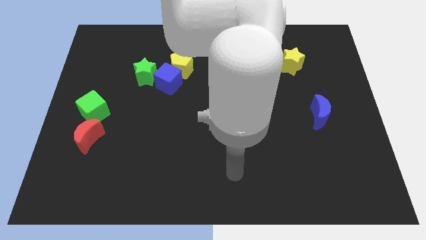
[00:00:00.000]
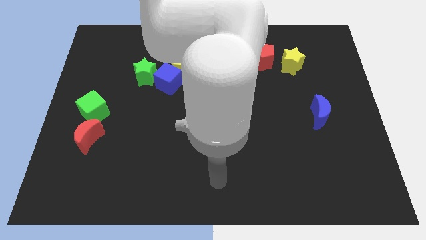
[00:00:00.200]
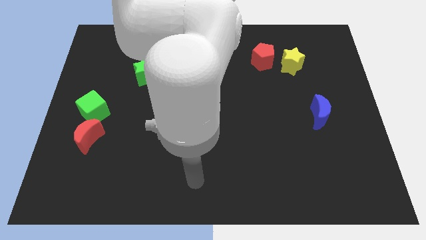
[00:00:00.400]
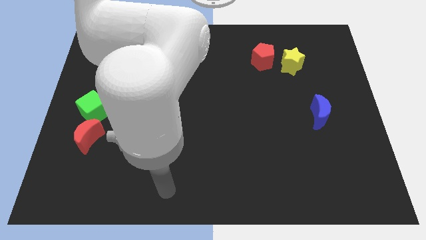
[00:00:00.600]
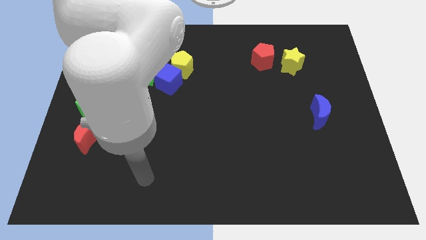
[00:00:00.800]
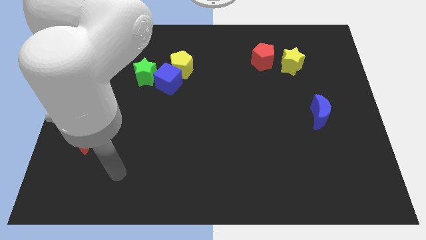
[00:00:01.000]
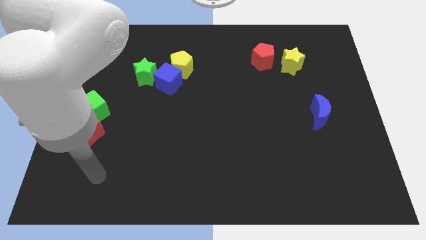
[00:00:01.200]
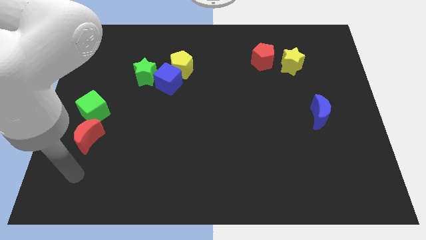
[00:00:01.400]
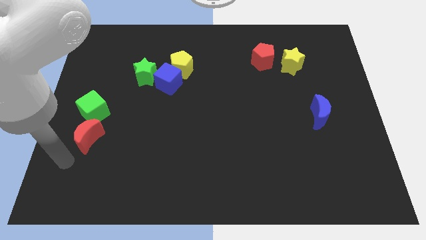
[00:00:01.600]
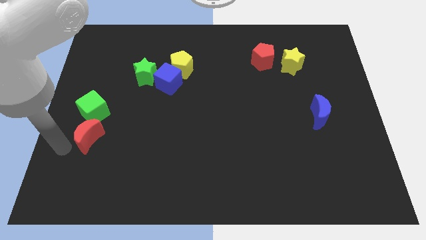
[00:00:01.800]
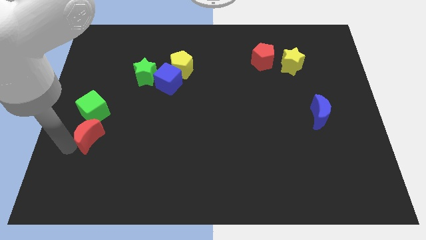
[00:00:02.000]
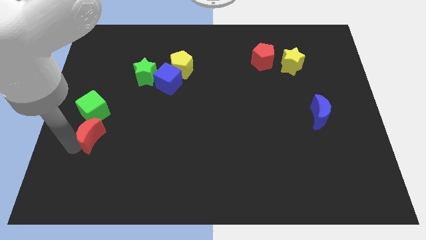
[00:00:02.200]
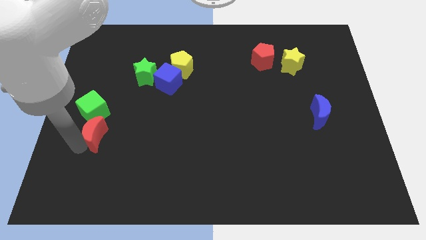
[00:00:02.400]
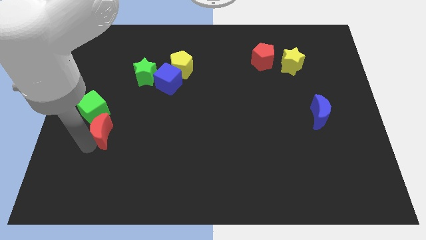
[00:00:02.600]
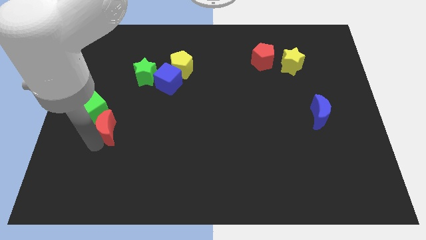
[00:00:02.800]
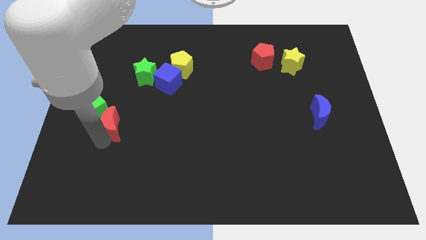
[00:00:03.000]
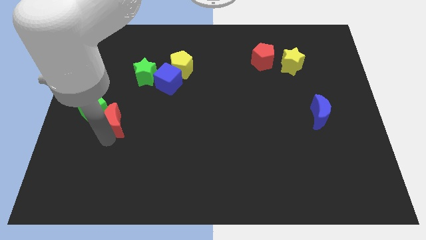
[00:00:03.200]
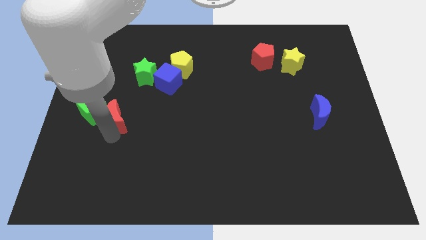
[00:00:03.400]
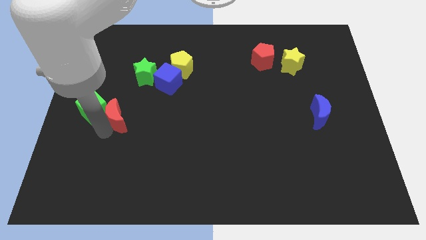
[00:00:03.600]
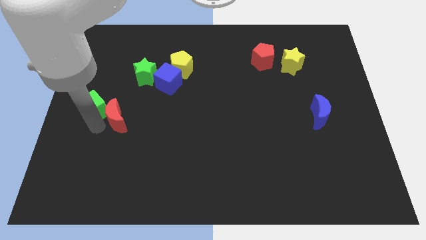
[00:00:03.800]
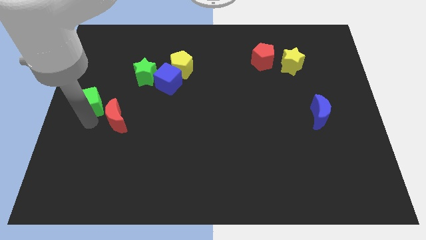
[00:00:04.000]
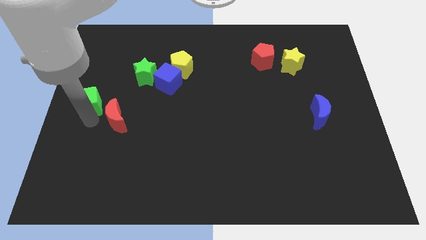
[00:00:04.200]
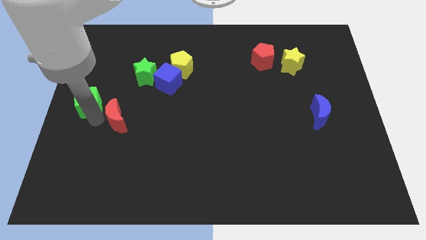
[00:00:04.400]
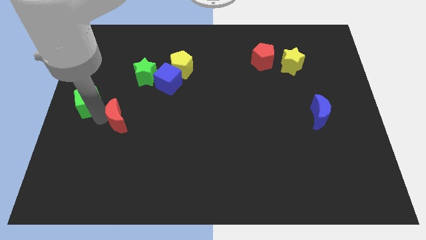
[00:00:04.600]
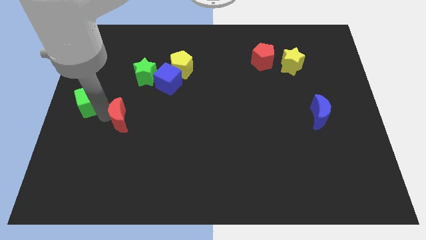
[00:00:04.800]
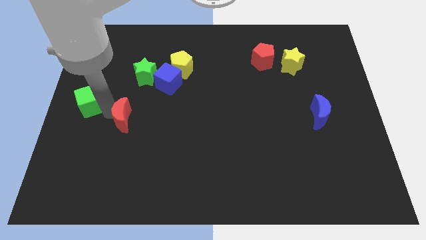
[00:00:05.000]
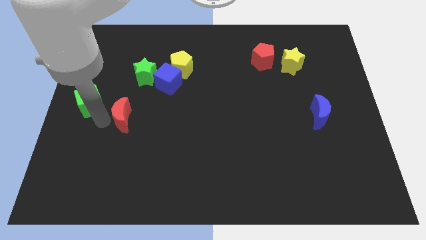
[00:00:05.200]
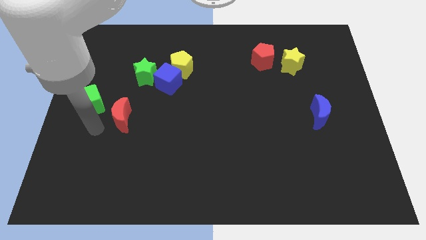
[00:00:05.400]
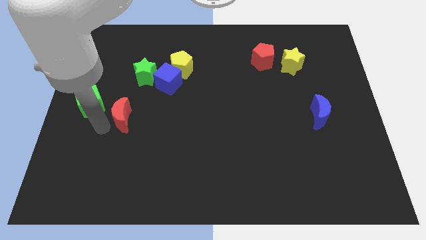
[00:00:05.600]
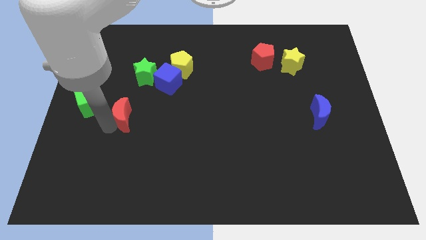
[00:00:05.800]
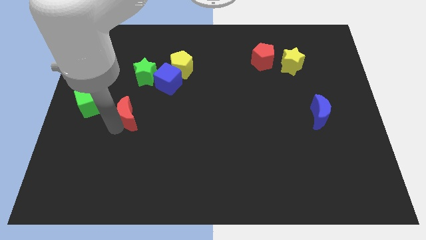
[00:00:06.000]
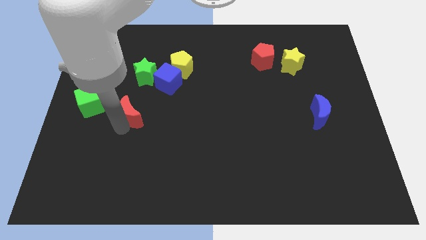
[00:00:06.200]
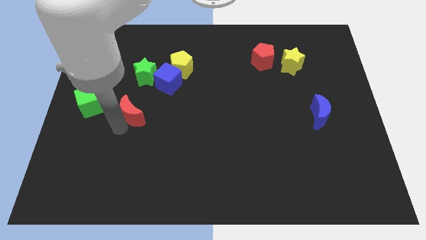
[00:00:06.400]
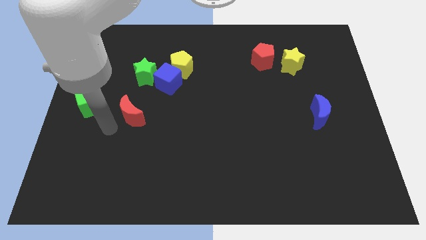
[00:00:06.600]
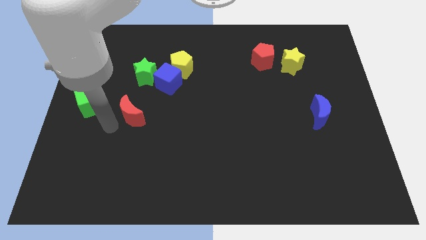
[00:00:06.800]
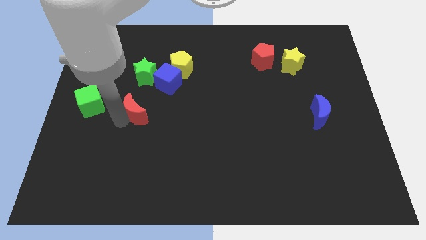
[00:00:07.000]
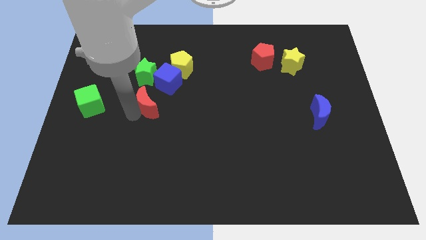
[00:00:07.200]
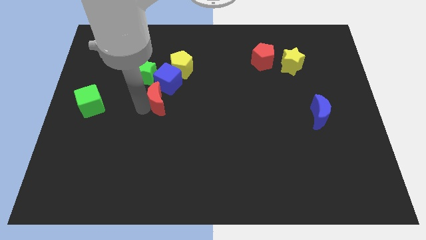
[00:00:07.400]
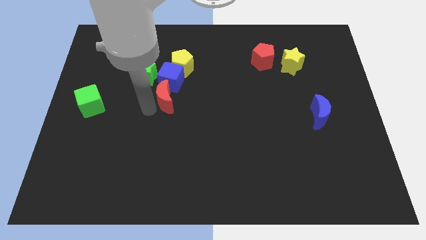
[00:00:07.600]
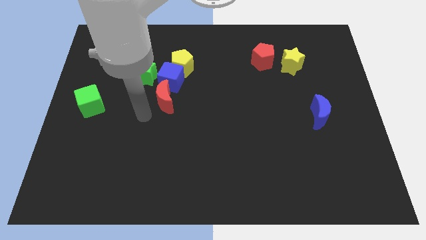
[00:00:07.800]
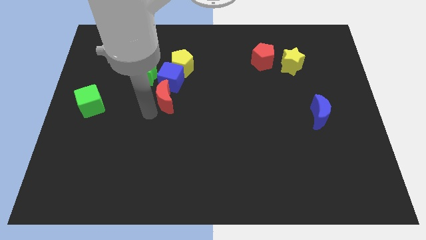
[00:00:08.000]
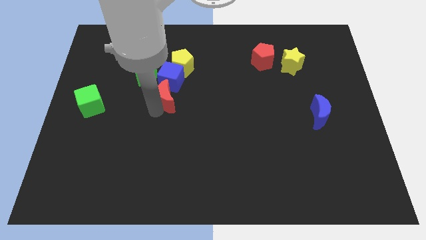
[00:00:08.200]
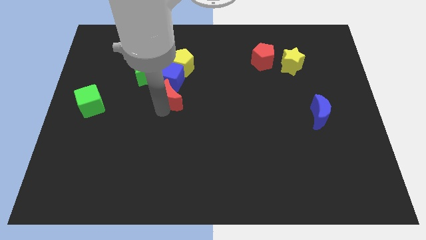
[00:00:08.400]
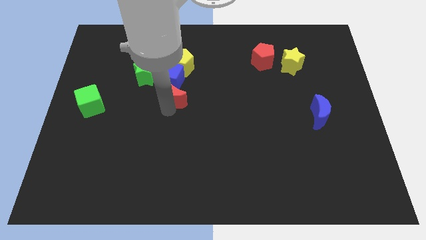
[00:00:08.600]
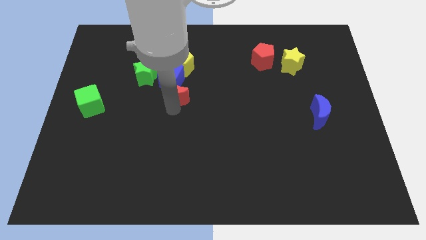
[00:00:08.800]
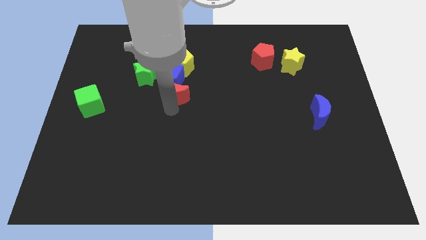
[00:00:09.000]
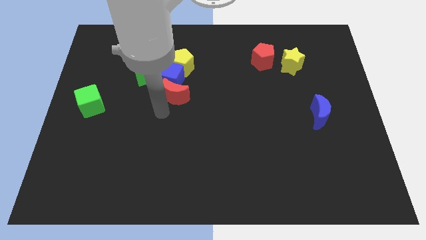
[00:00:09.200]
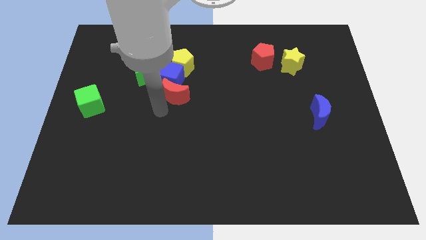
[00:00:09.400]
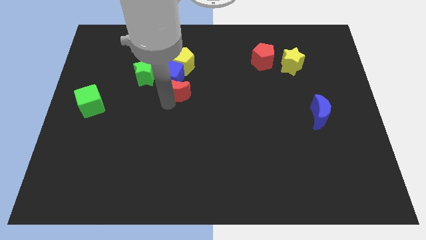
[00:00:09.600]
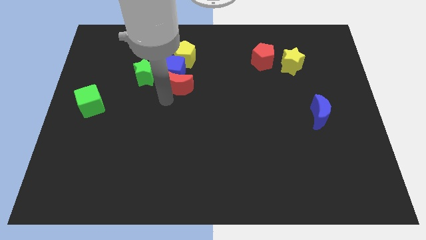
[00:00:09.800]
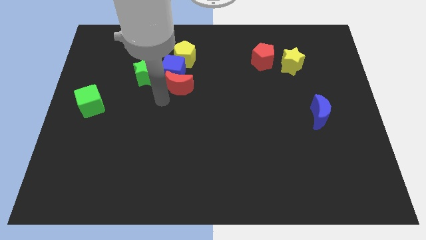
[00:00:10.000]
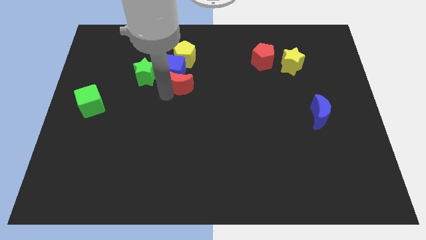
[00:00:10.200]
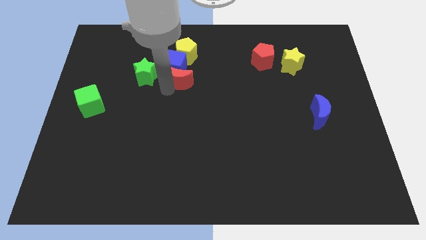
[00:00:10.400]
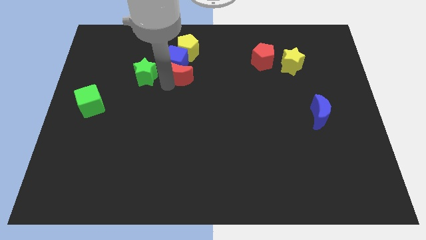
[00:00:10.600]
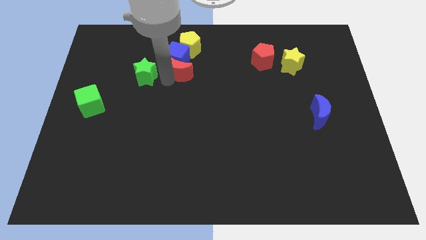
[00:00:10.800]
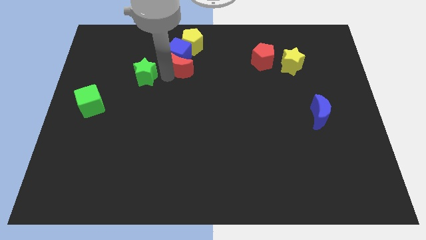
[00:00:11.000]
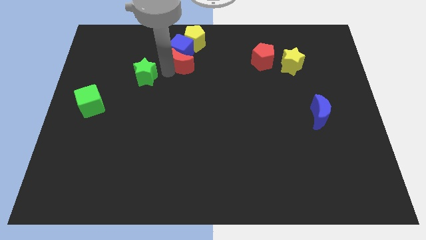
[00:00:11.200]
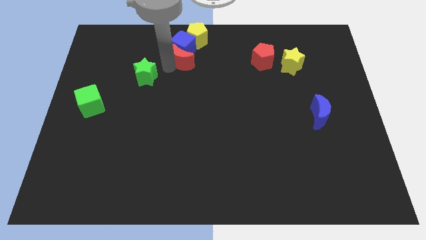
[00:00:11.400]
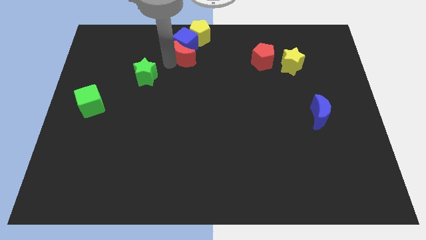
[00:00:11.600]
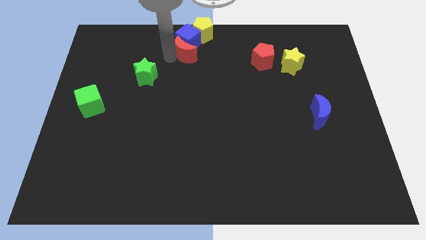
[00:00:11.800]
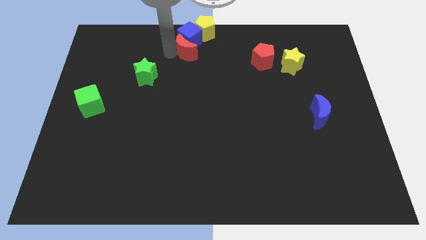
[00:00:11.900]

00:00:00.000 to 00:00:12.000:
move the red moon to the top

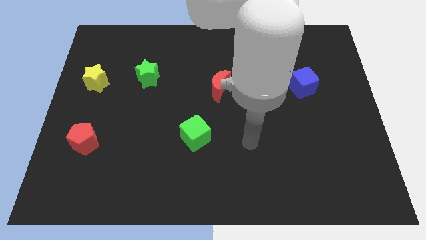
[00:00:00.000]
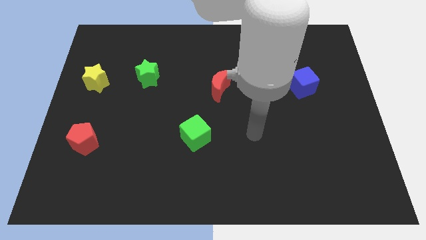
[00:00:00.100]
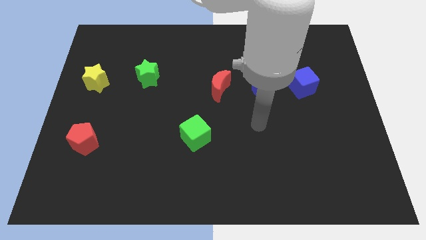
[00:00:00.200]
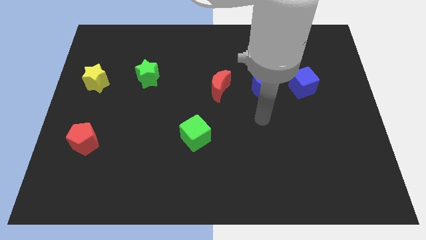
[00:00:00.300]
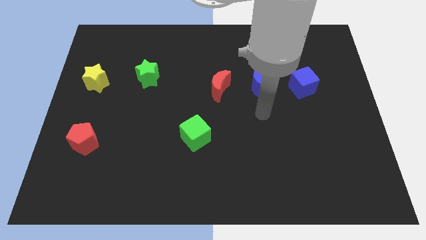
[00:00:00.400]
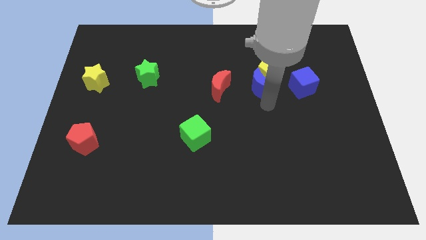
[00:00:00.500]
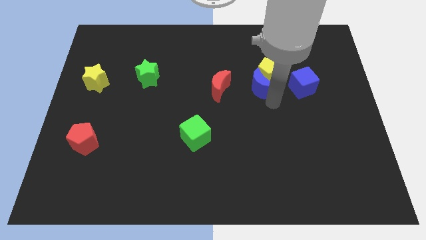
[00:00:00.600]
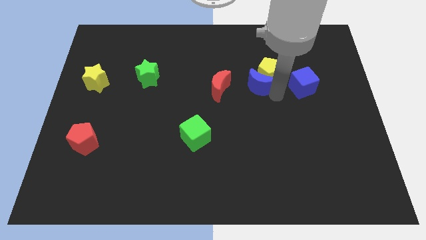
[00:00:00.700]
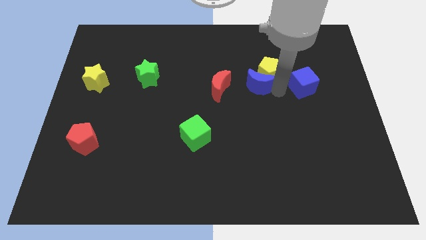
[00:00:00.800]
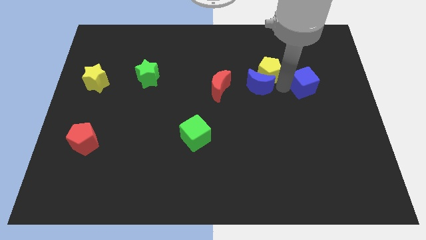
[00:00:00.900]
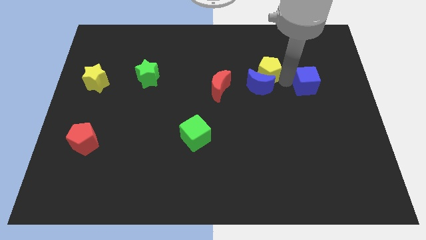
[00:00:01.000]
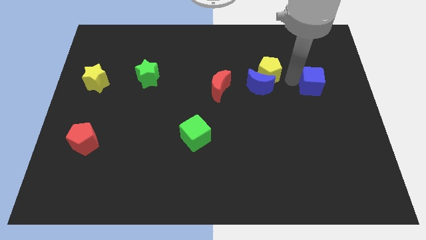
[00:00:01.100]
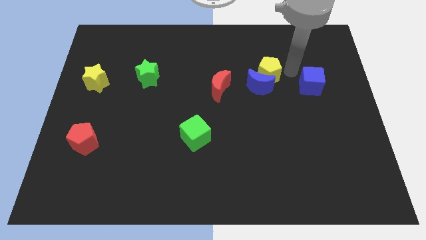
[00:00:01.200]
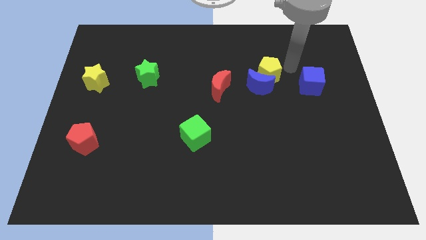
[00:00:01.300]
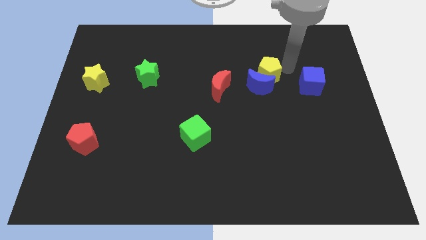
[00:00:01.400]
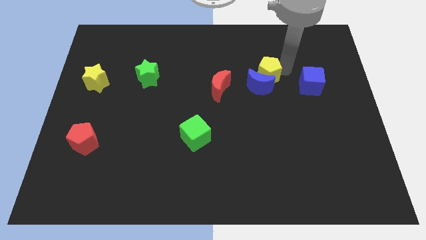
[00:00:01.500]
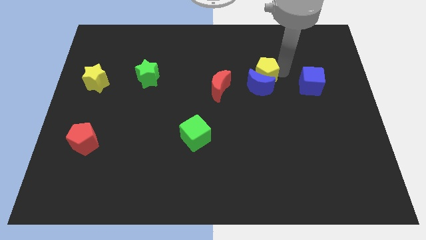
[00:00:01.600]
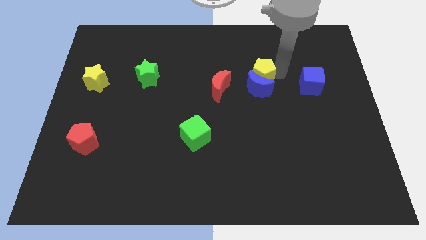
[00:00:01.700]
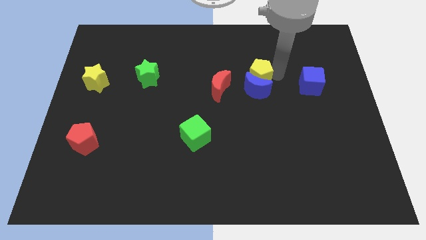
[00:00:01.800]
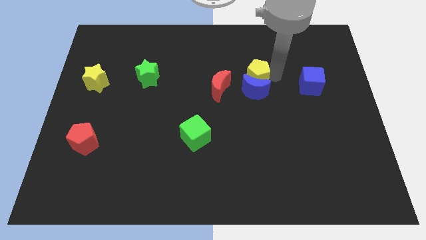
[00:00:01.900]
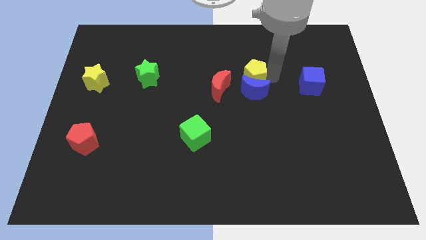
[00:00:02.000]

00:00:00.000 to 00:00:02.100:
push the yellow pentagon to the center of the board
